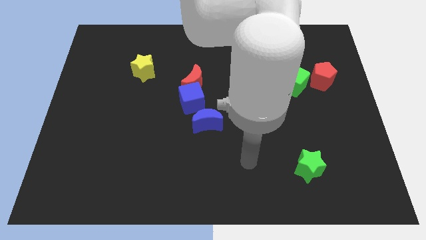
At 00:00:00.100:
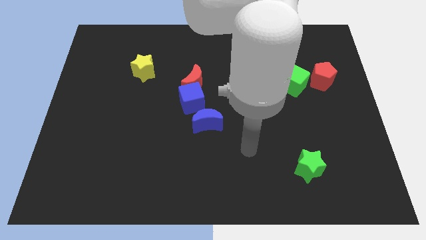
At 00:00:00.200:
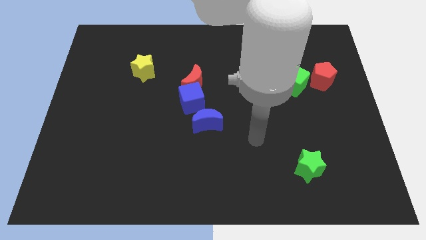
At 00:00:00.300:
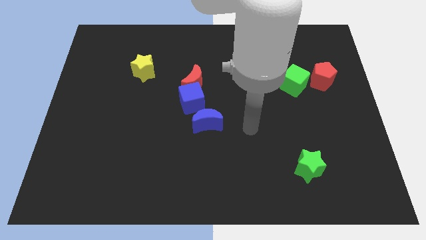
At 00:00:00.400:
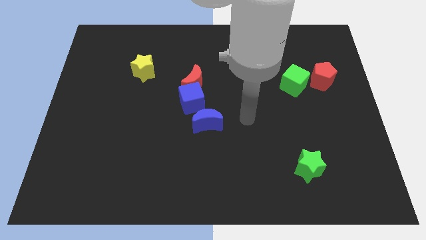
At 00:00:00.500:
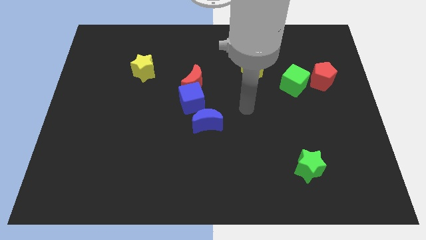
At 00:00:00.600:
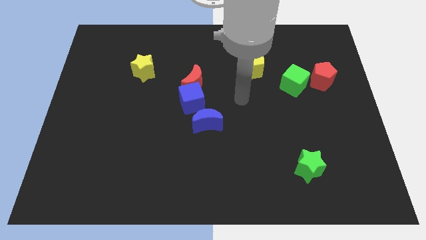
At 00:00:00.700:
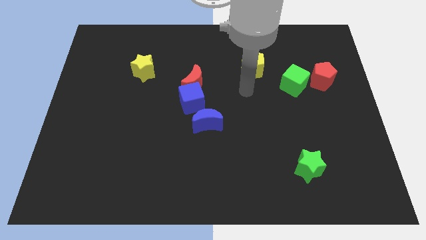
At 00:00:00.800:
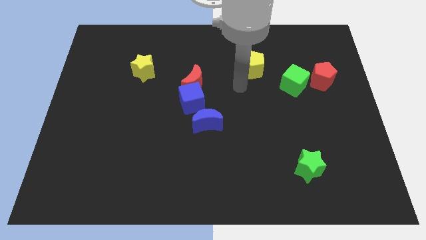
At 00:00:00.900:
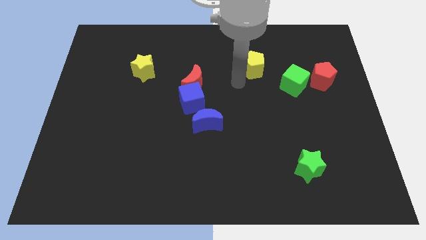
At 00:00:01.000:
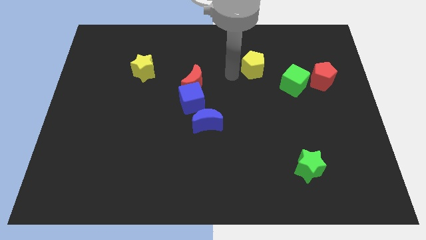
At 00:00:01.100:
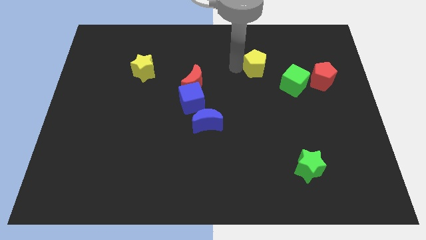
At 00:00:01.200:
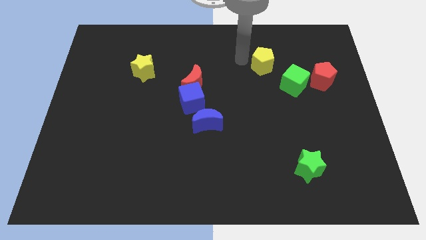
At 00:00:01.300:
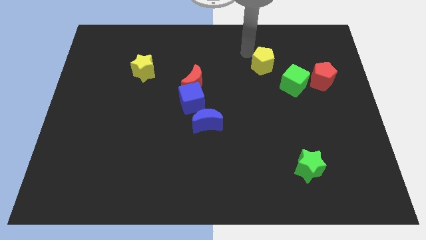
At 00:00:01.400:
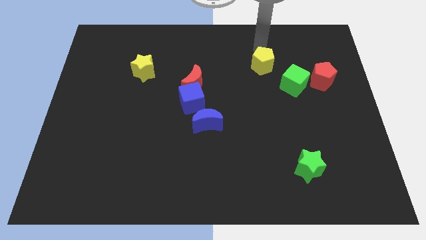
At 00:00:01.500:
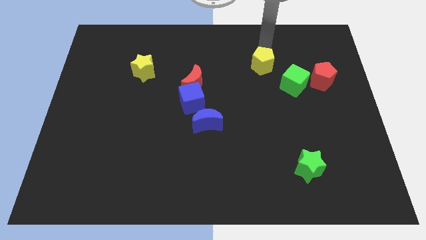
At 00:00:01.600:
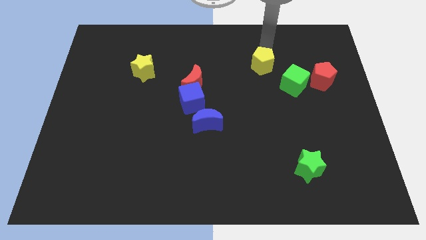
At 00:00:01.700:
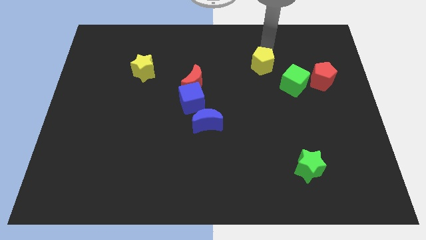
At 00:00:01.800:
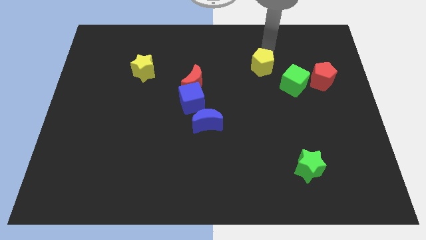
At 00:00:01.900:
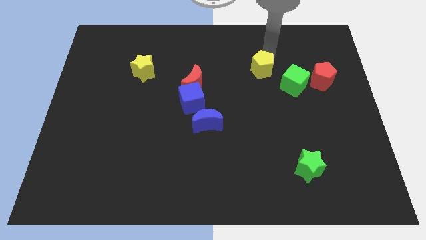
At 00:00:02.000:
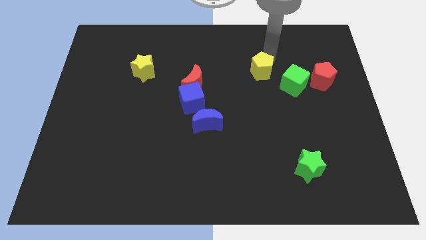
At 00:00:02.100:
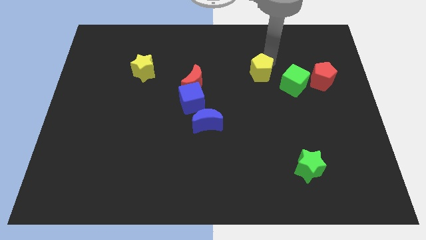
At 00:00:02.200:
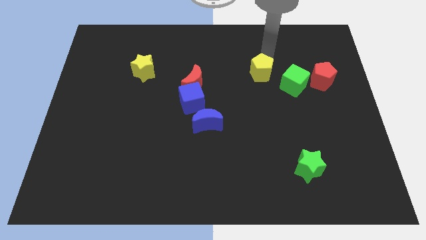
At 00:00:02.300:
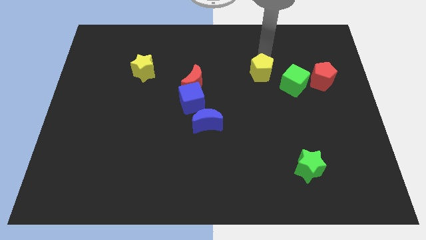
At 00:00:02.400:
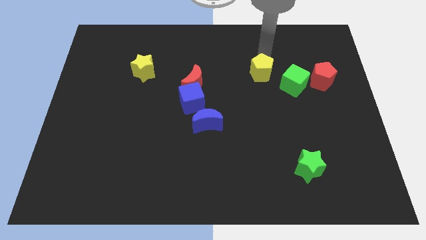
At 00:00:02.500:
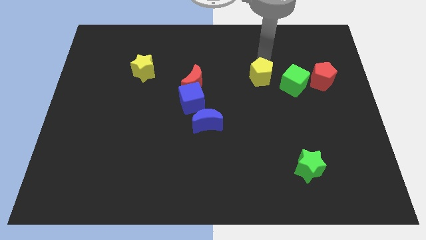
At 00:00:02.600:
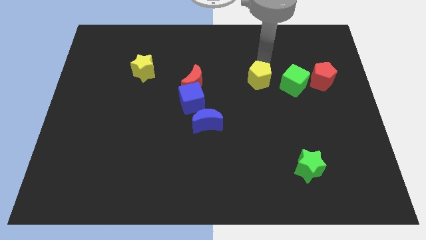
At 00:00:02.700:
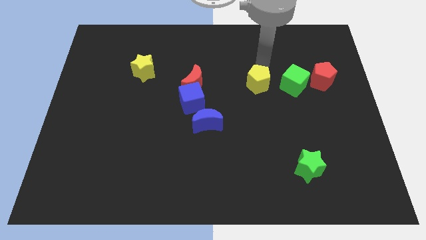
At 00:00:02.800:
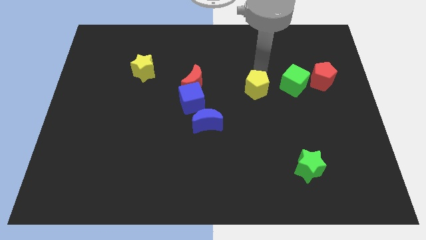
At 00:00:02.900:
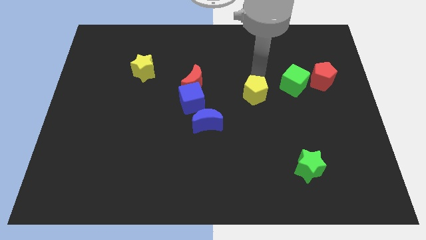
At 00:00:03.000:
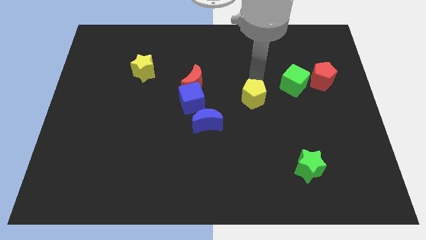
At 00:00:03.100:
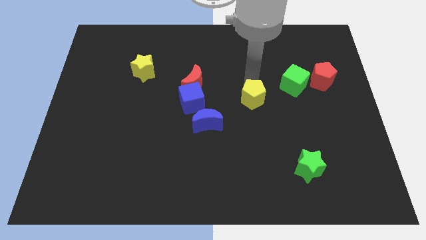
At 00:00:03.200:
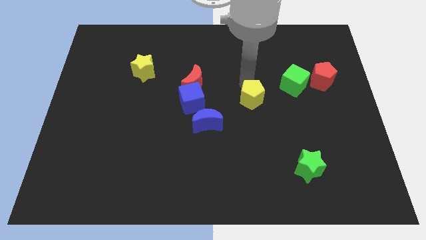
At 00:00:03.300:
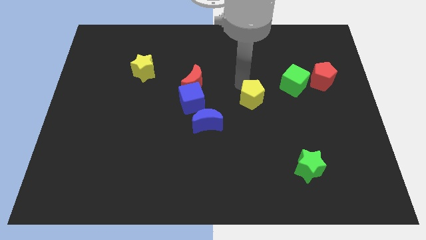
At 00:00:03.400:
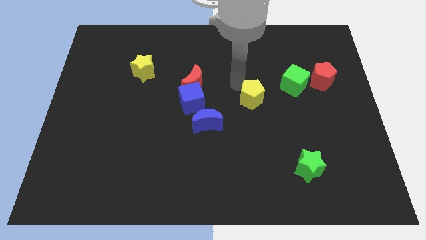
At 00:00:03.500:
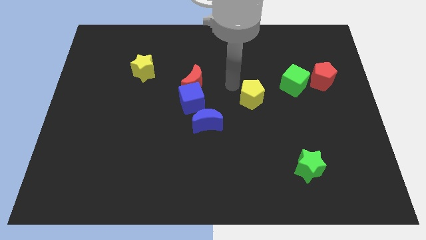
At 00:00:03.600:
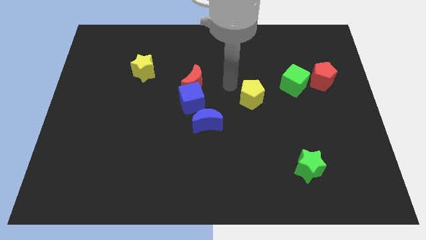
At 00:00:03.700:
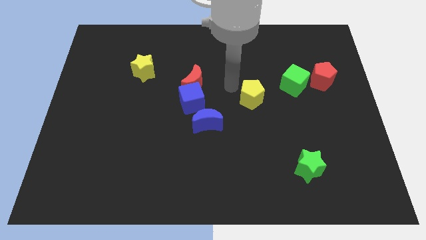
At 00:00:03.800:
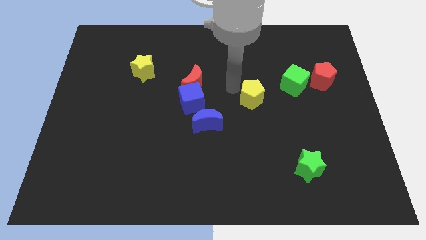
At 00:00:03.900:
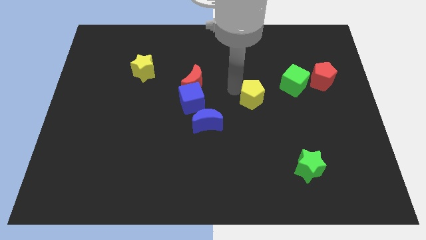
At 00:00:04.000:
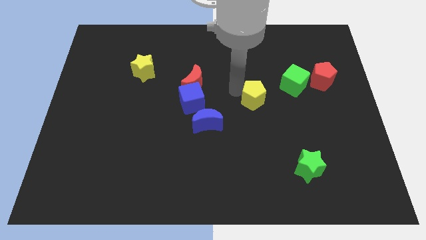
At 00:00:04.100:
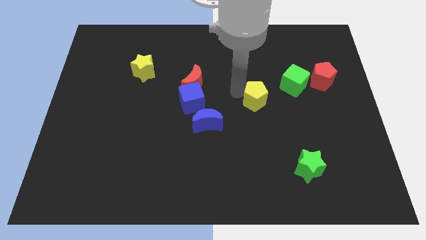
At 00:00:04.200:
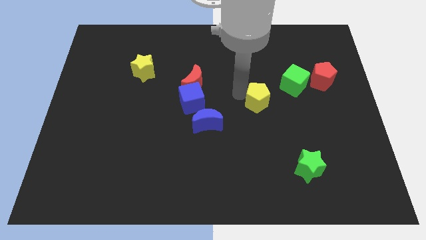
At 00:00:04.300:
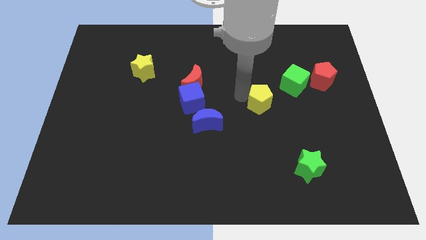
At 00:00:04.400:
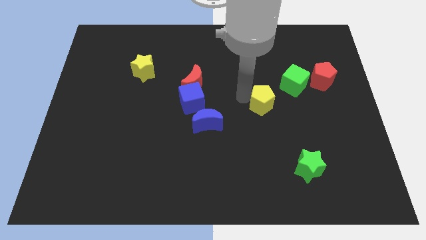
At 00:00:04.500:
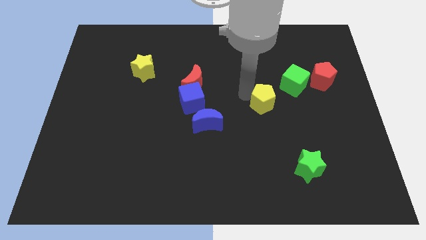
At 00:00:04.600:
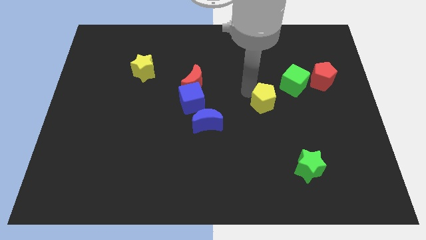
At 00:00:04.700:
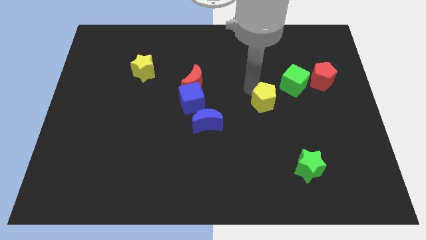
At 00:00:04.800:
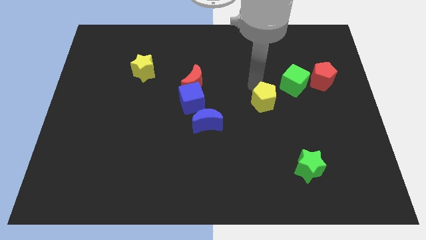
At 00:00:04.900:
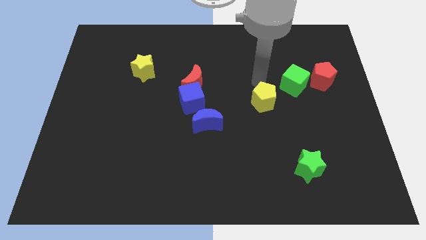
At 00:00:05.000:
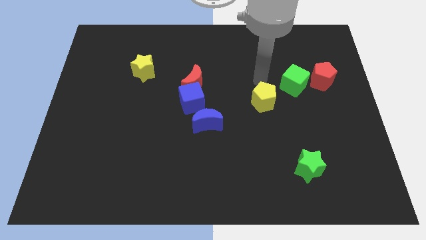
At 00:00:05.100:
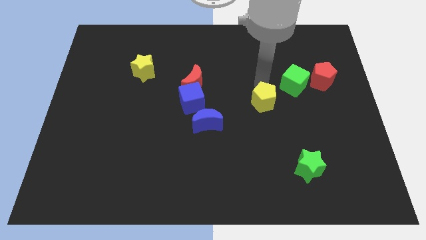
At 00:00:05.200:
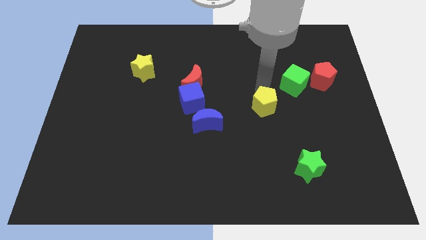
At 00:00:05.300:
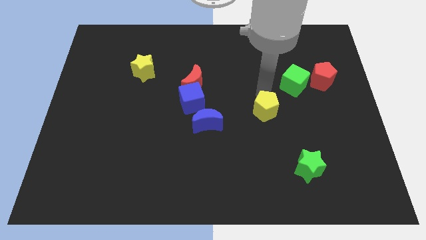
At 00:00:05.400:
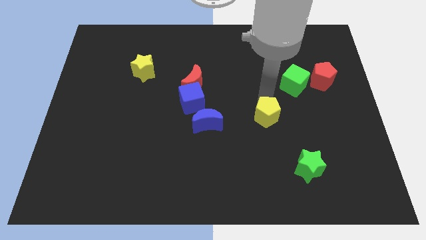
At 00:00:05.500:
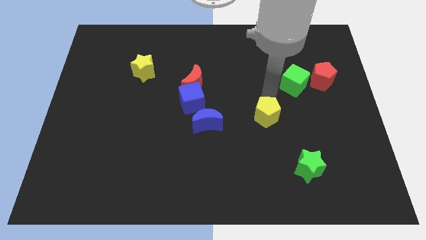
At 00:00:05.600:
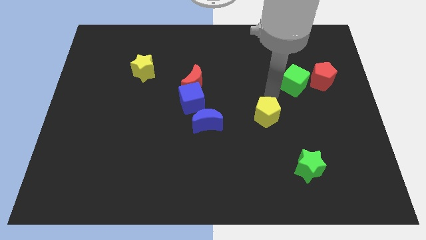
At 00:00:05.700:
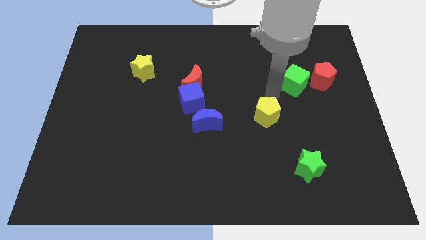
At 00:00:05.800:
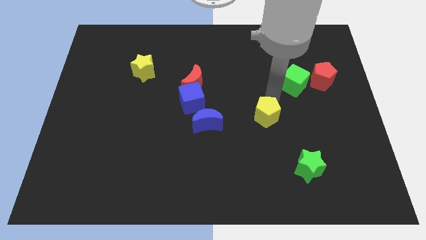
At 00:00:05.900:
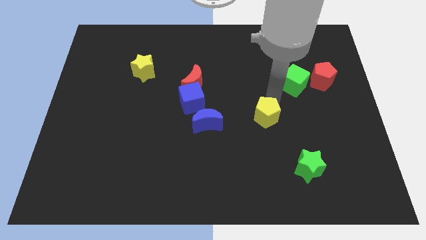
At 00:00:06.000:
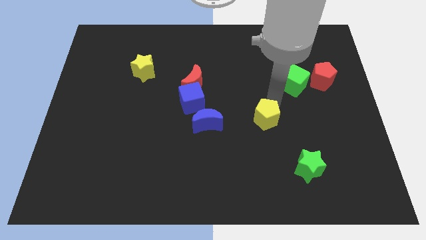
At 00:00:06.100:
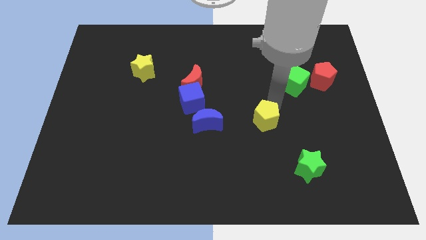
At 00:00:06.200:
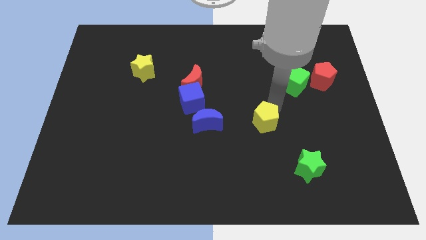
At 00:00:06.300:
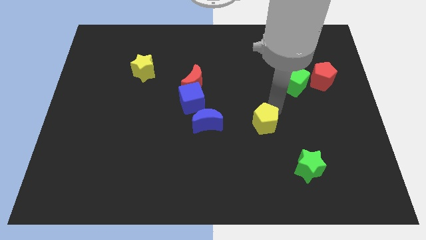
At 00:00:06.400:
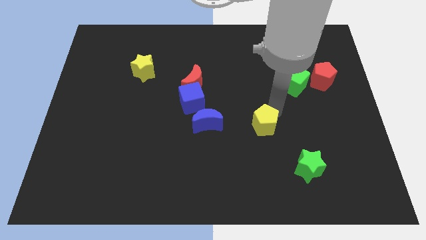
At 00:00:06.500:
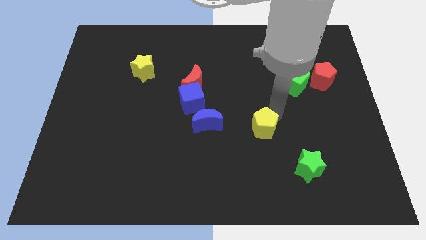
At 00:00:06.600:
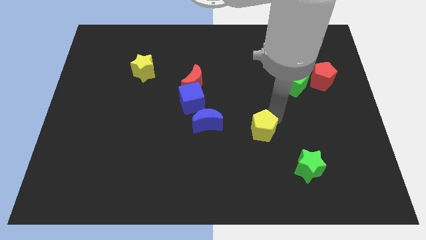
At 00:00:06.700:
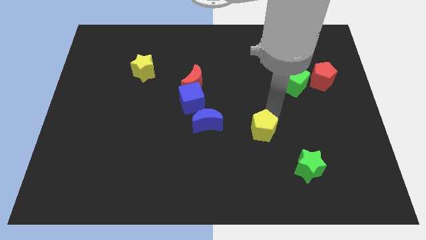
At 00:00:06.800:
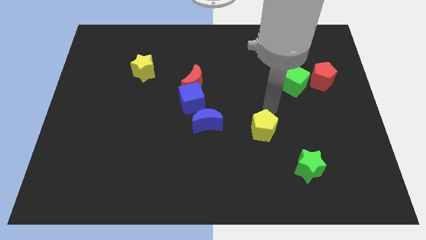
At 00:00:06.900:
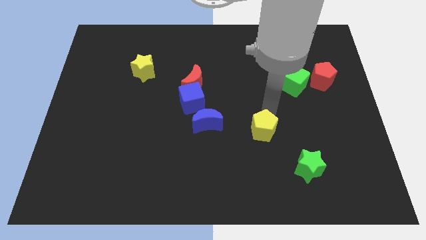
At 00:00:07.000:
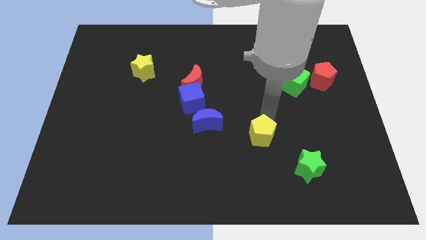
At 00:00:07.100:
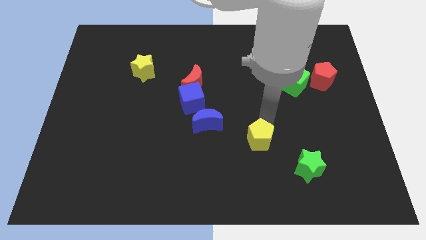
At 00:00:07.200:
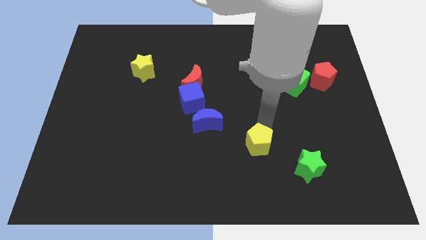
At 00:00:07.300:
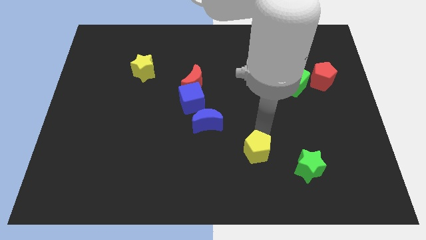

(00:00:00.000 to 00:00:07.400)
push the yellow pentagon left of the green star
